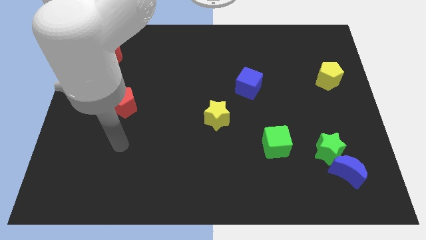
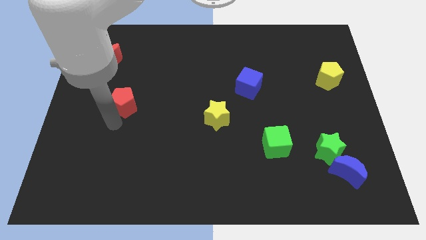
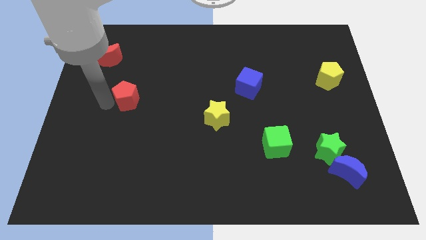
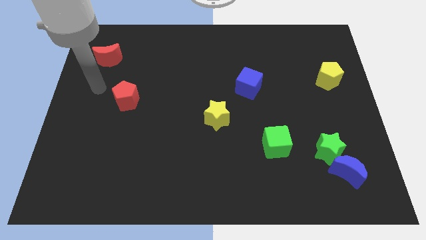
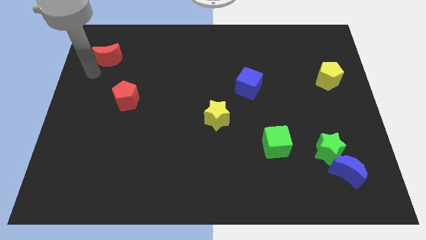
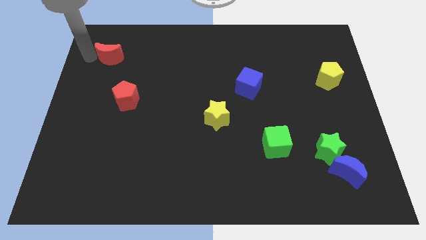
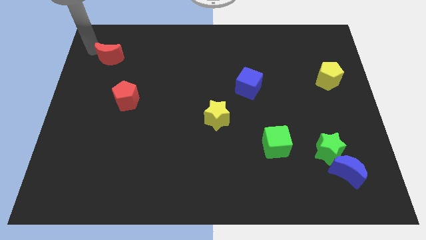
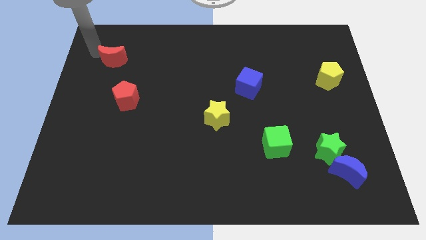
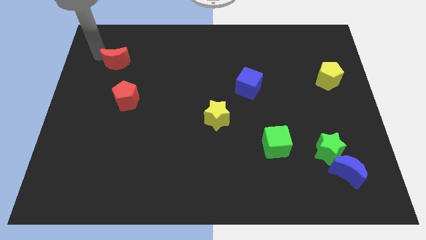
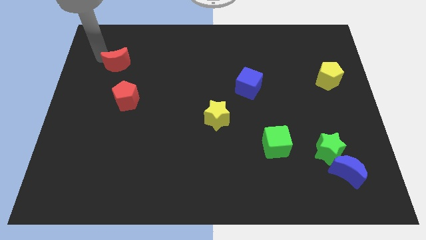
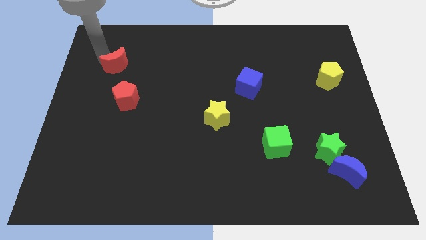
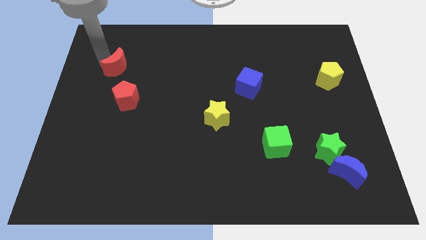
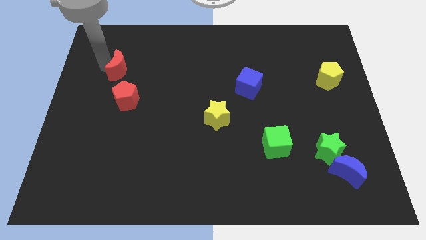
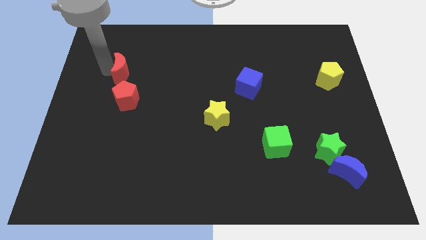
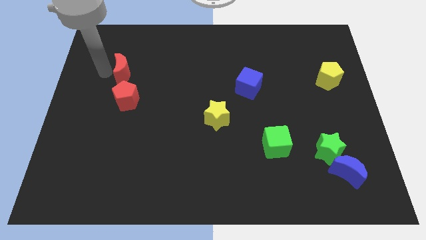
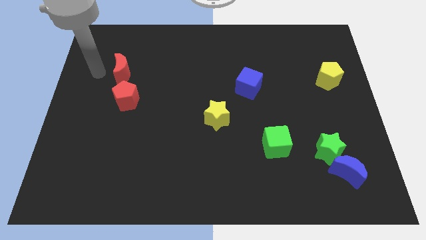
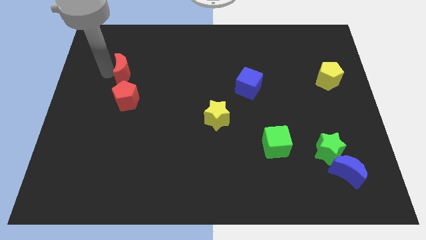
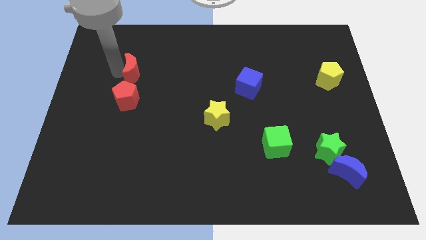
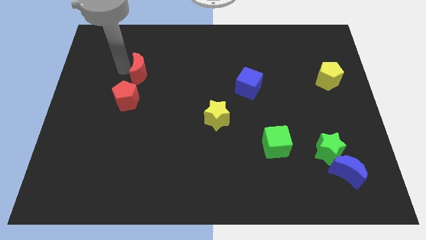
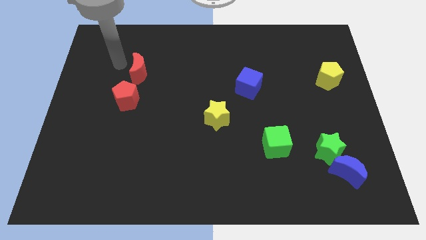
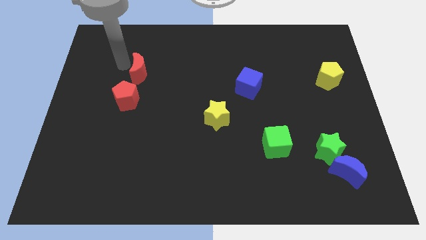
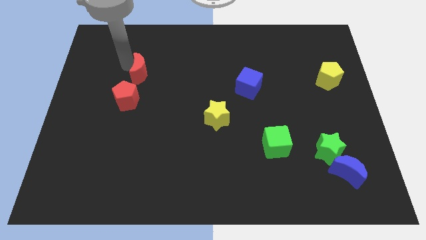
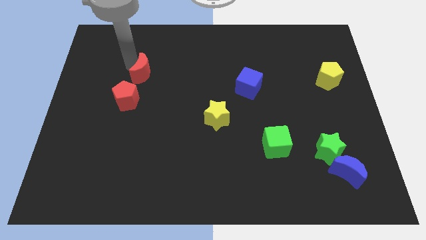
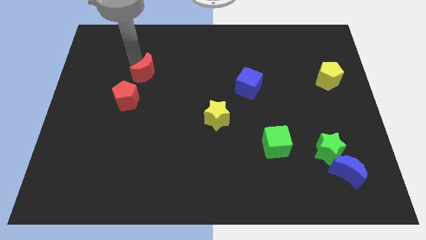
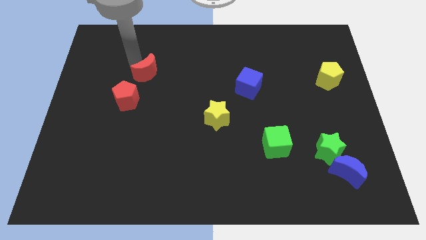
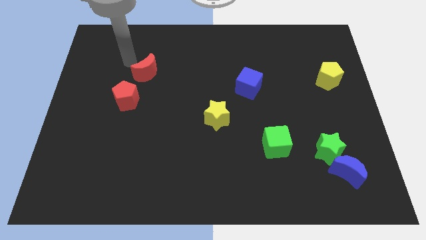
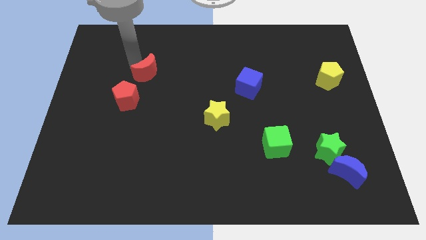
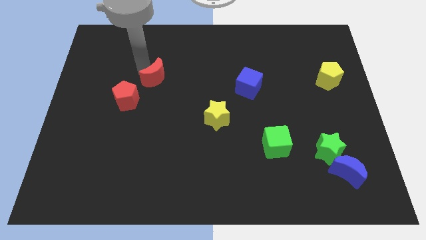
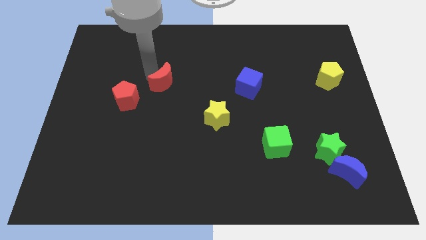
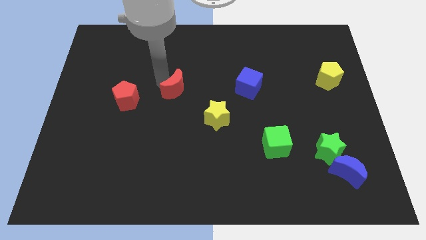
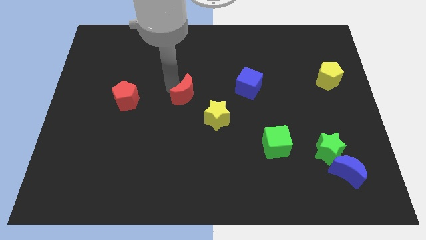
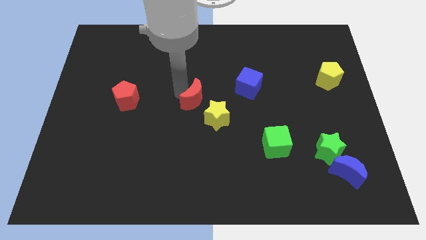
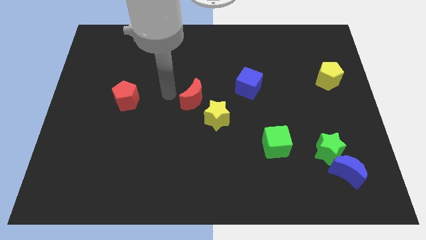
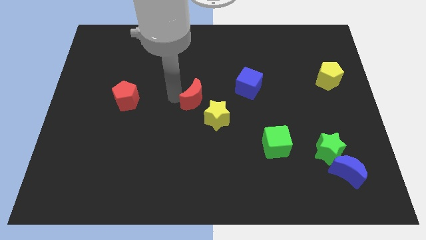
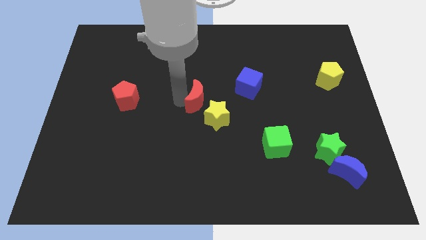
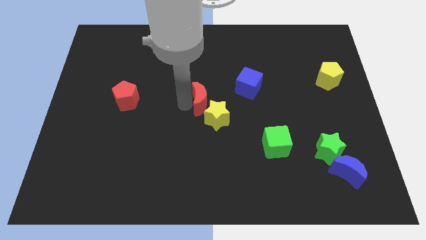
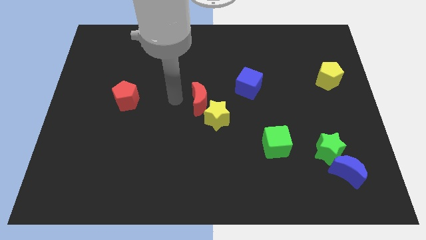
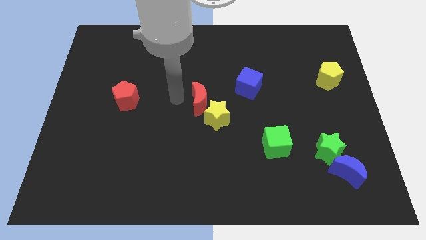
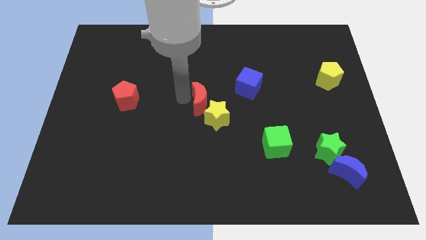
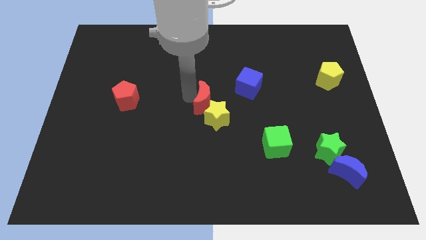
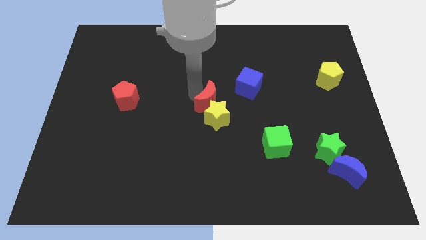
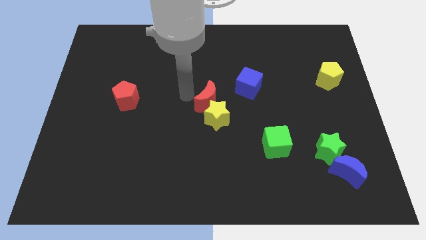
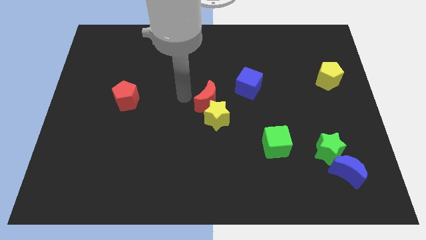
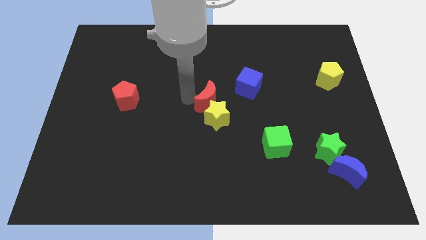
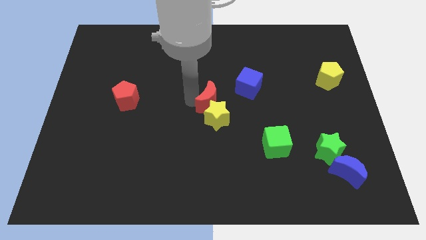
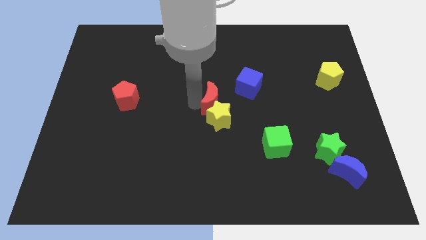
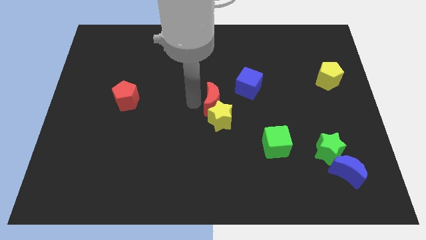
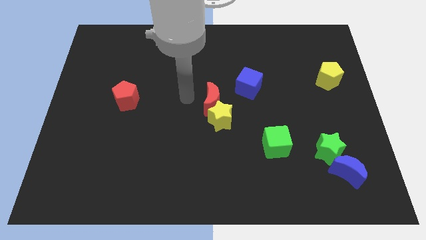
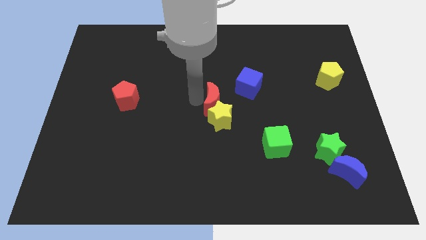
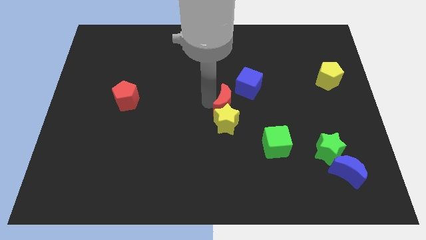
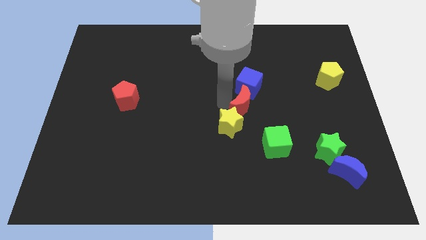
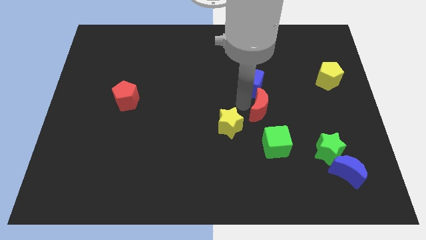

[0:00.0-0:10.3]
slide the red moon just right of the yellow star

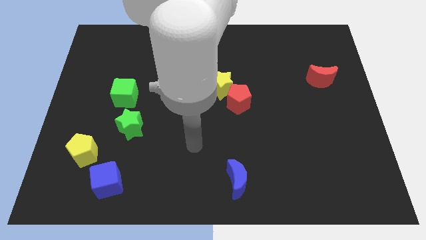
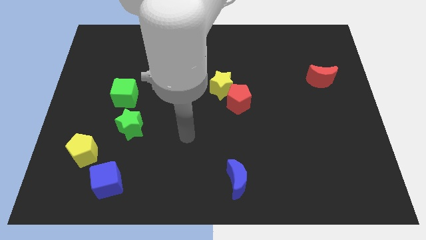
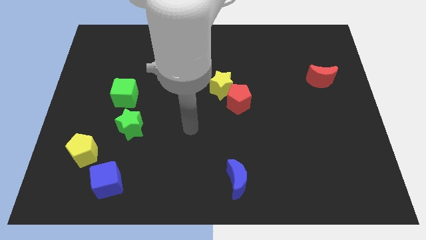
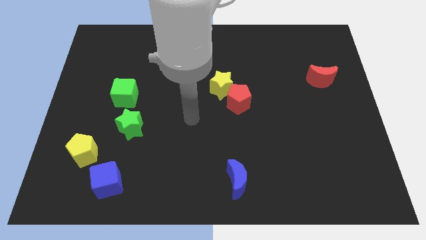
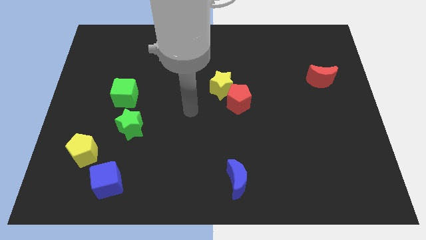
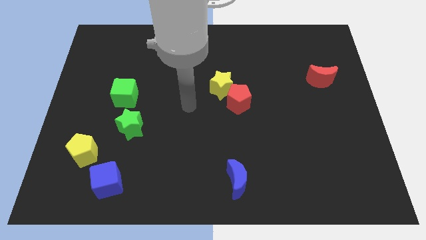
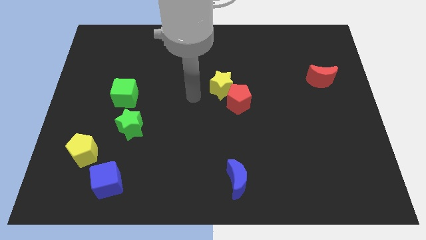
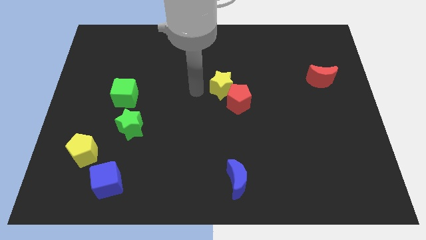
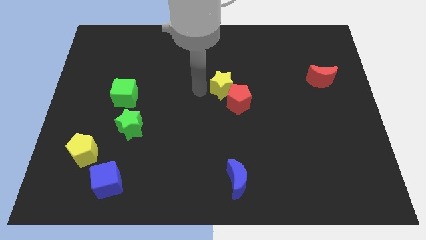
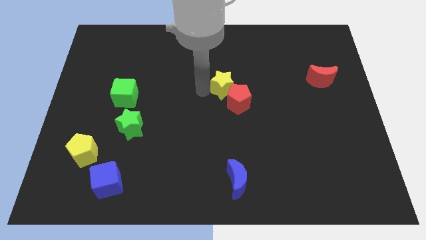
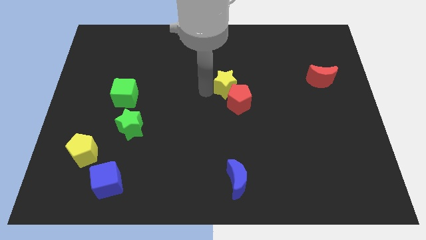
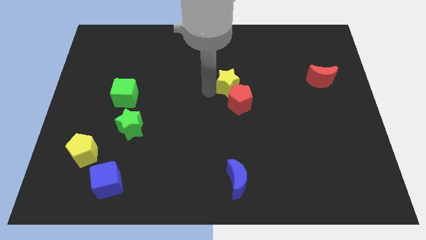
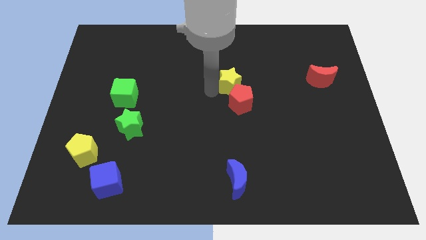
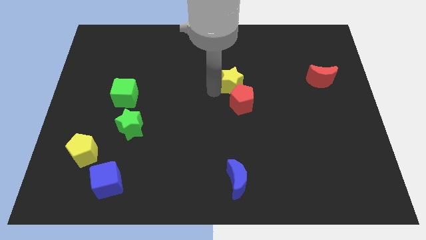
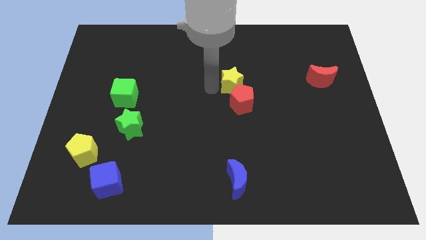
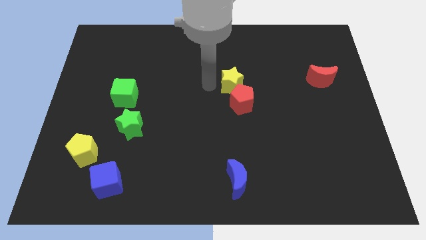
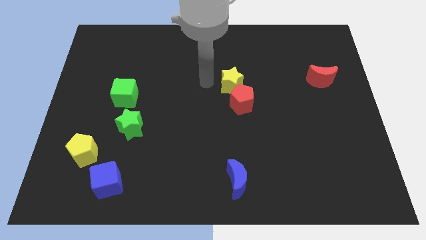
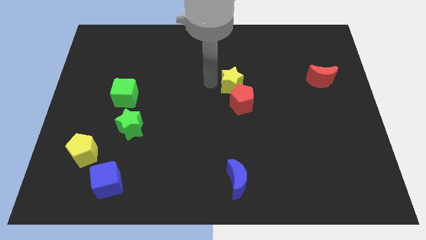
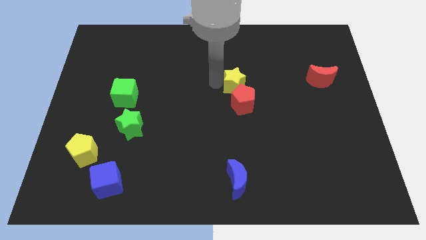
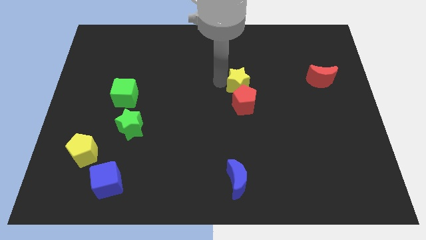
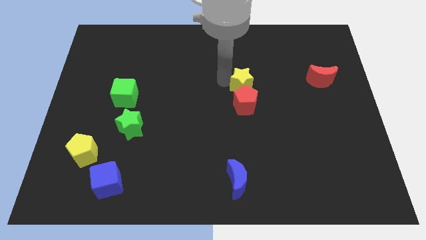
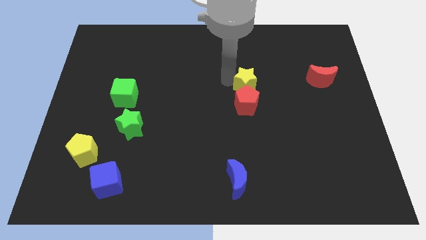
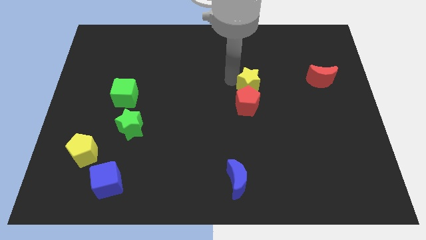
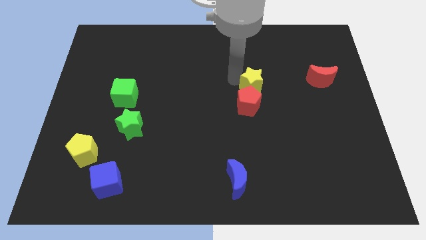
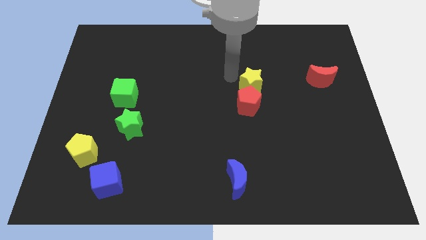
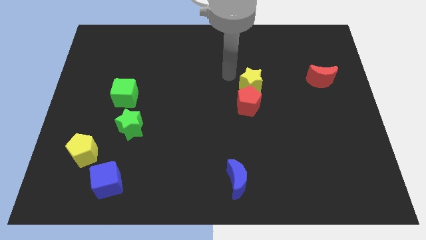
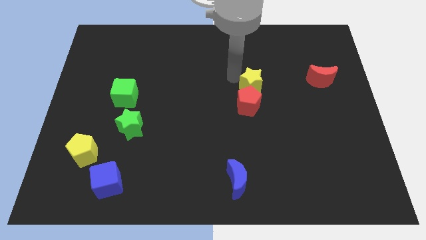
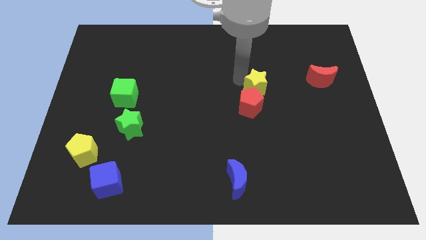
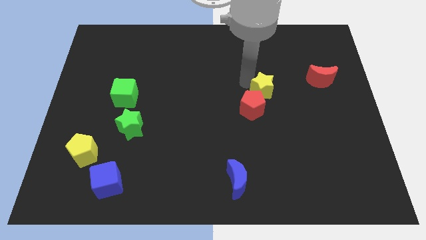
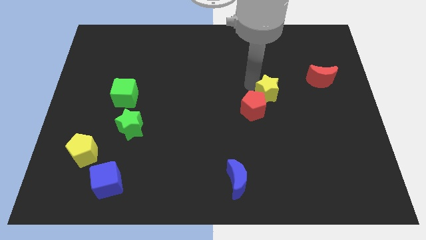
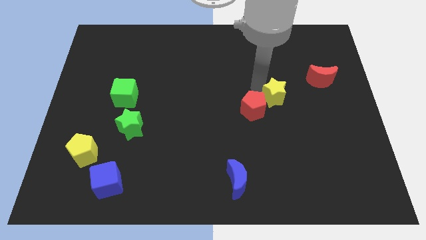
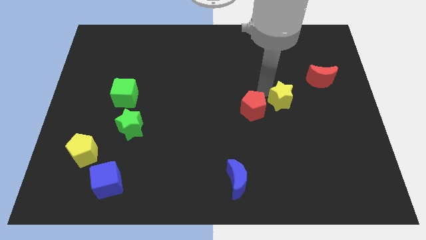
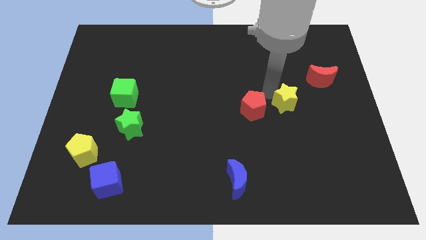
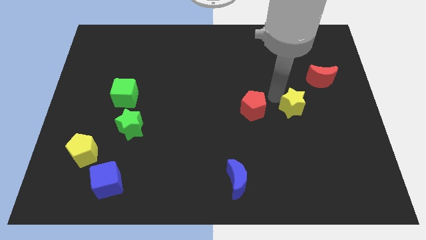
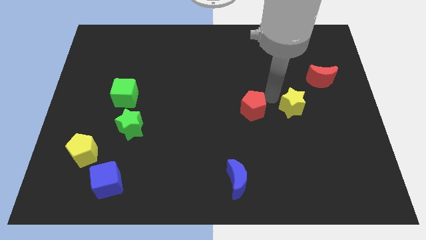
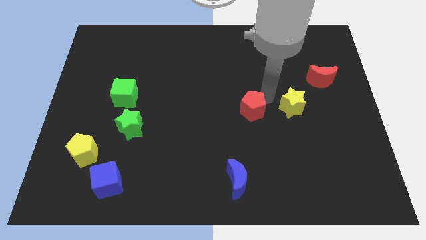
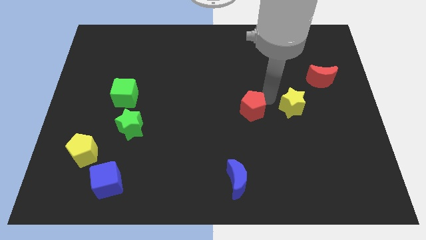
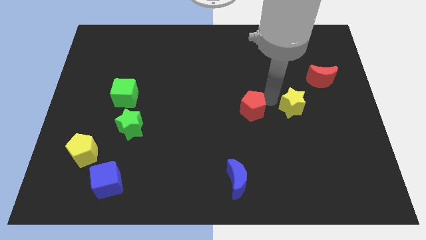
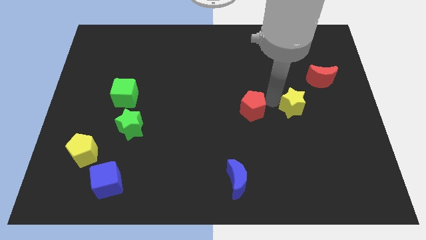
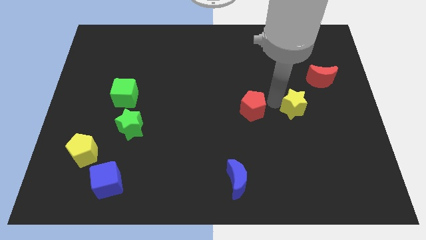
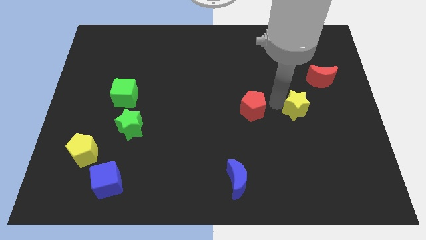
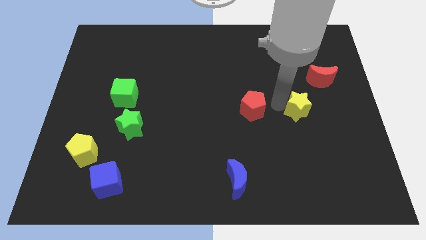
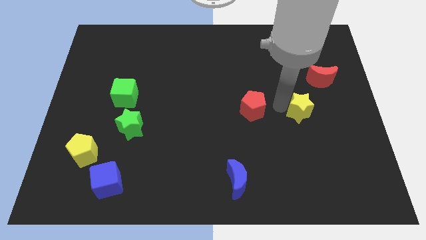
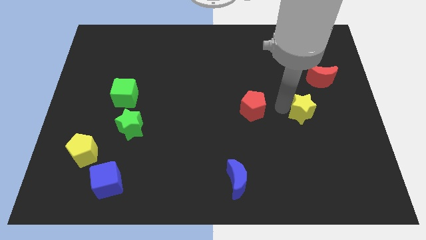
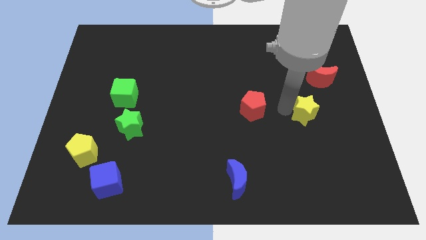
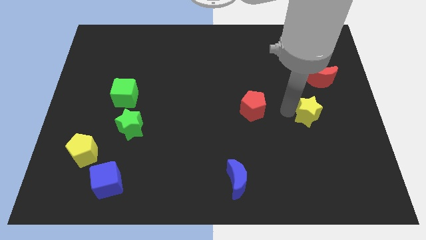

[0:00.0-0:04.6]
slide the yellow star to the bottom of the red moon
